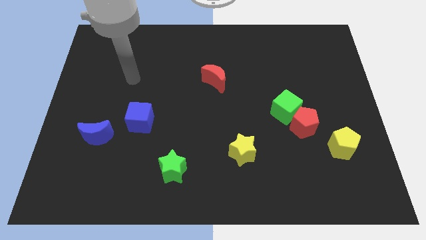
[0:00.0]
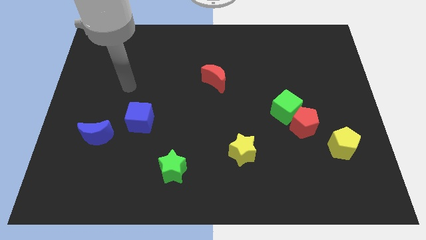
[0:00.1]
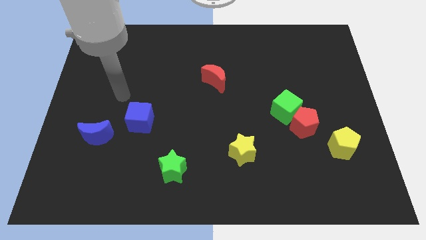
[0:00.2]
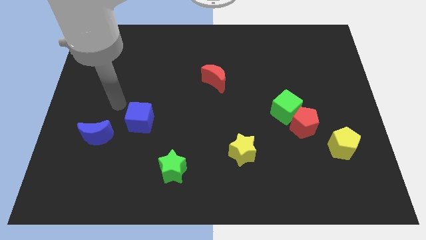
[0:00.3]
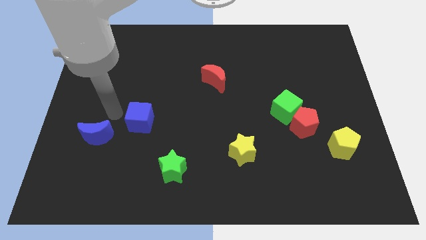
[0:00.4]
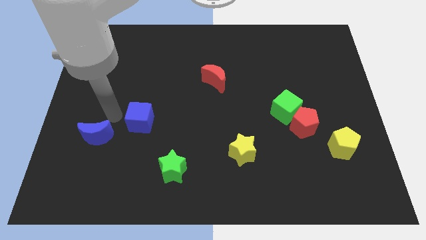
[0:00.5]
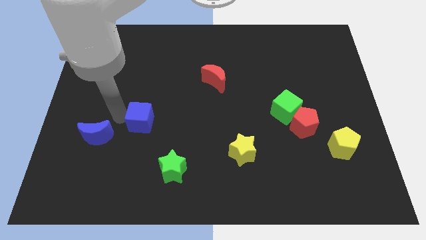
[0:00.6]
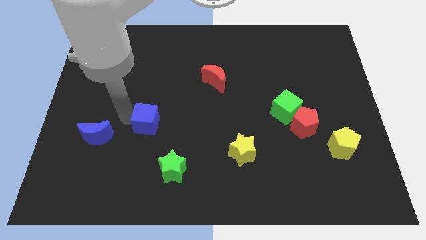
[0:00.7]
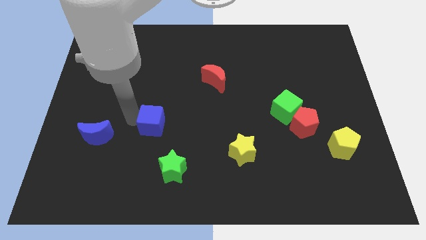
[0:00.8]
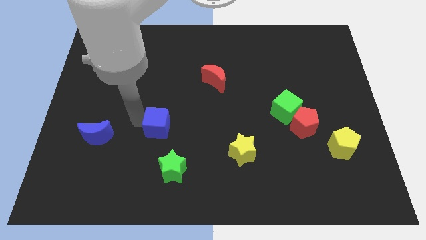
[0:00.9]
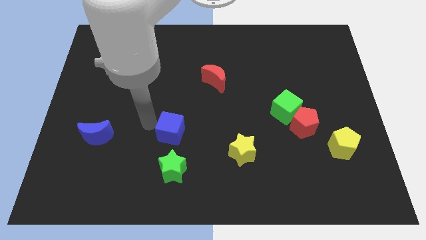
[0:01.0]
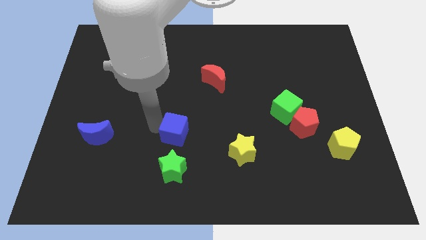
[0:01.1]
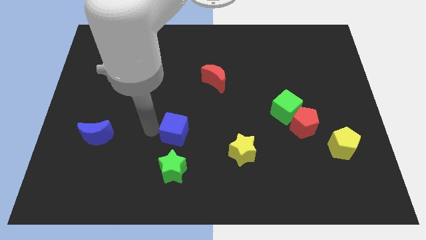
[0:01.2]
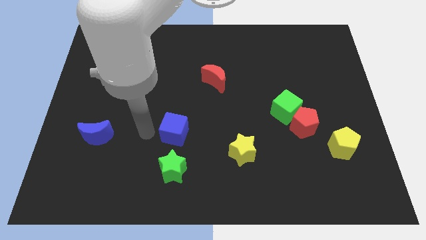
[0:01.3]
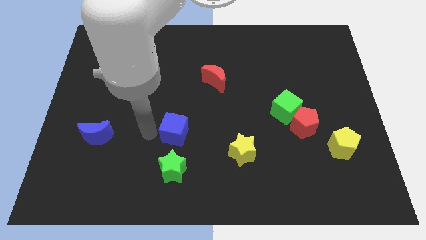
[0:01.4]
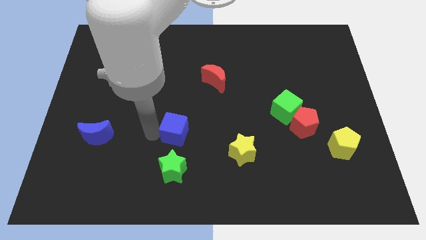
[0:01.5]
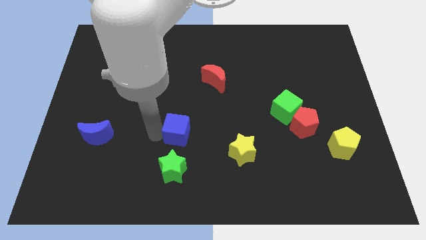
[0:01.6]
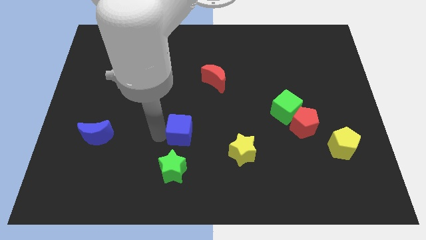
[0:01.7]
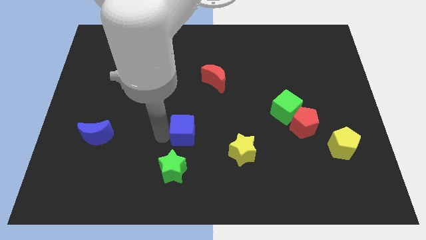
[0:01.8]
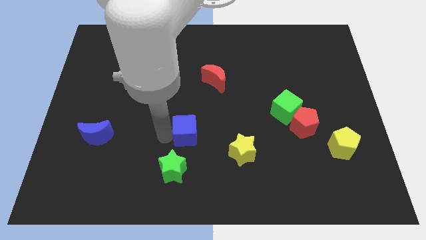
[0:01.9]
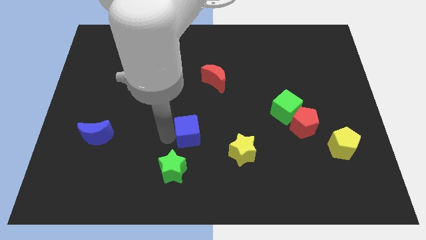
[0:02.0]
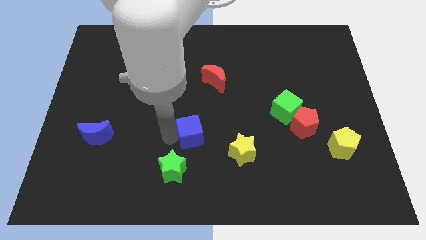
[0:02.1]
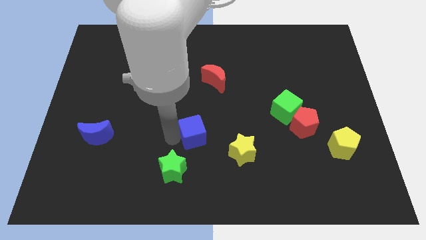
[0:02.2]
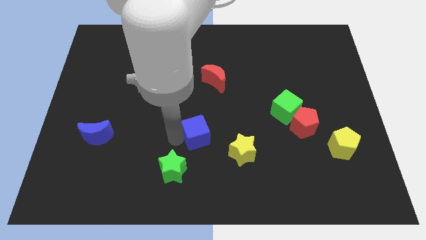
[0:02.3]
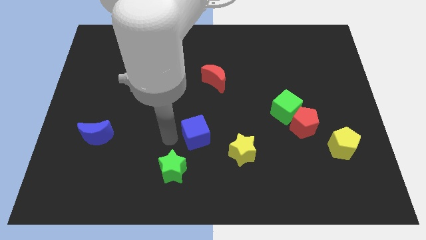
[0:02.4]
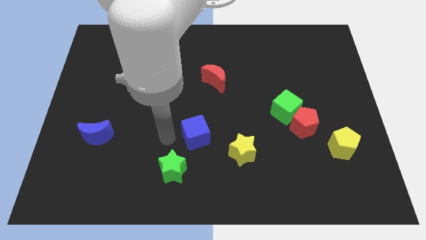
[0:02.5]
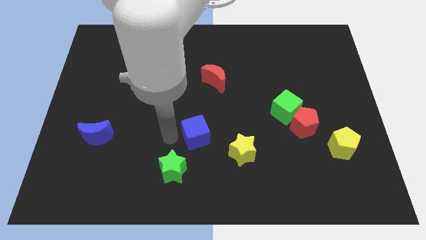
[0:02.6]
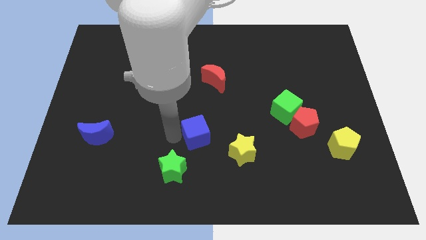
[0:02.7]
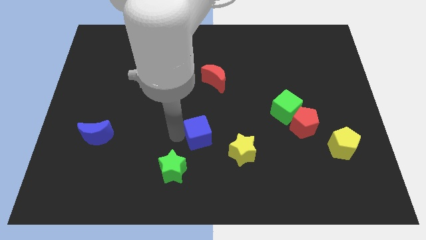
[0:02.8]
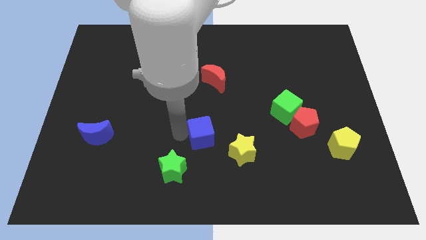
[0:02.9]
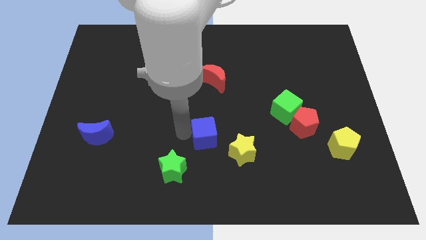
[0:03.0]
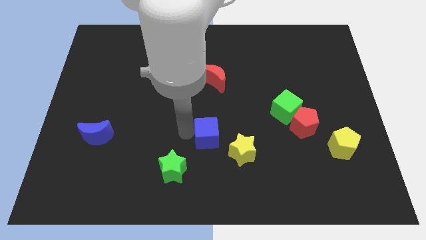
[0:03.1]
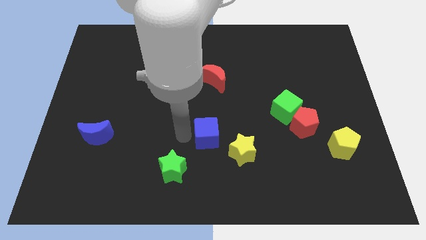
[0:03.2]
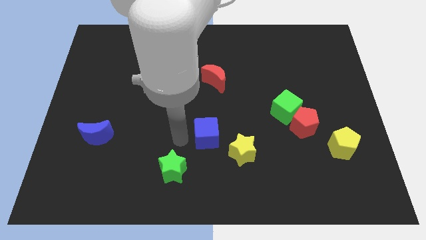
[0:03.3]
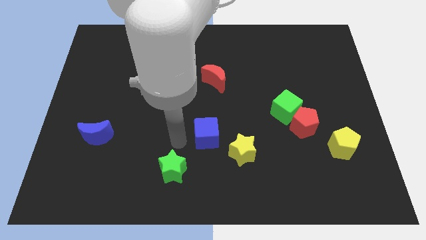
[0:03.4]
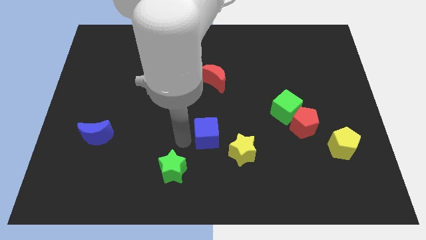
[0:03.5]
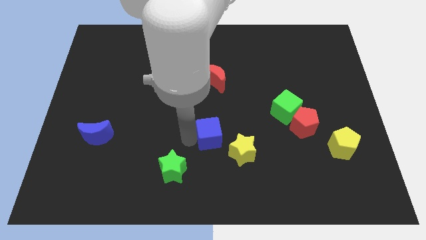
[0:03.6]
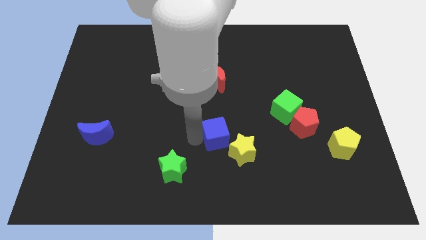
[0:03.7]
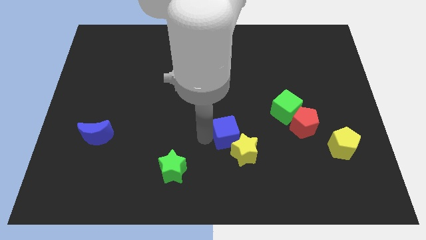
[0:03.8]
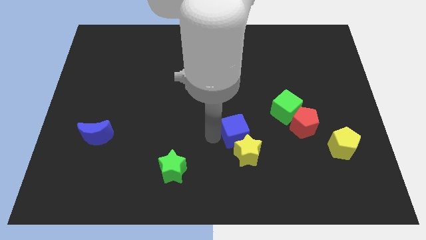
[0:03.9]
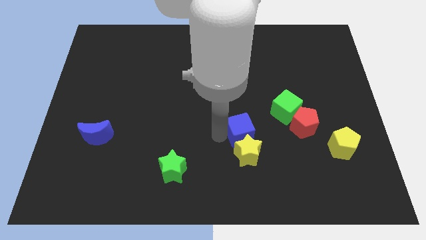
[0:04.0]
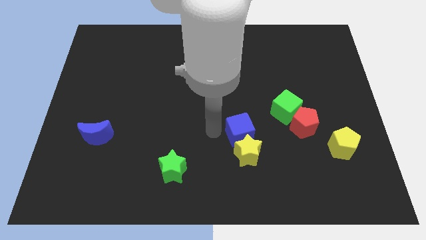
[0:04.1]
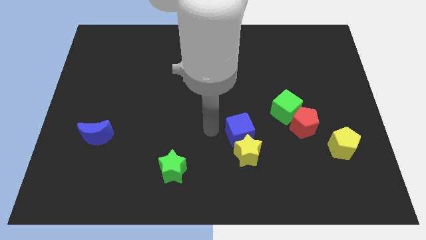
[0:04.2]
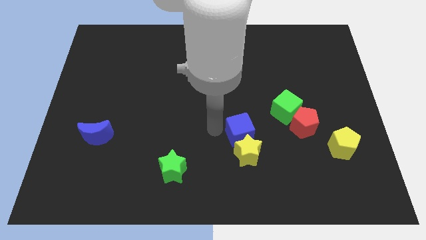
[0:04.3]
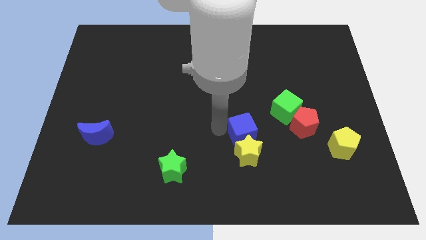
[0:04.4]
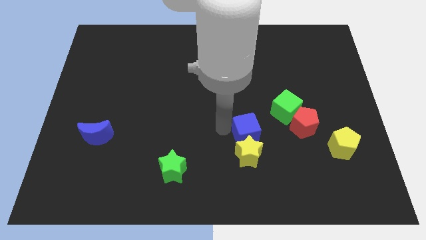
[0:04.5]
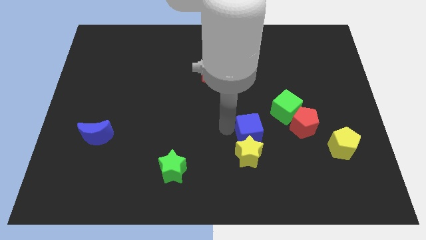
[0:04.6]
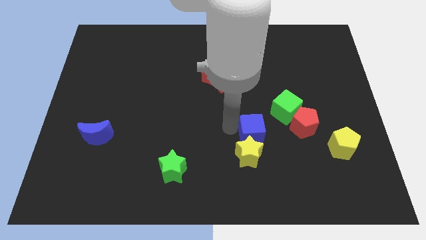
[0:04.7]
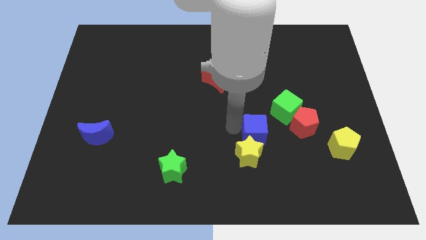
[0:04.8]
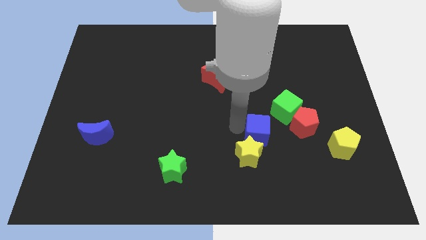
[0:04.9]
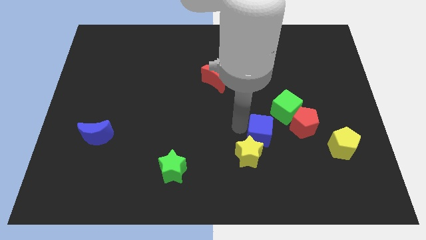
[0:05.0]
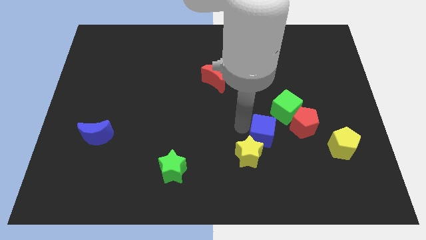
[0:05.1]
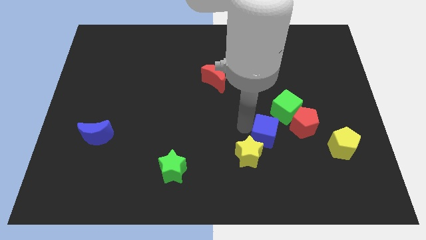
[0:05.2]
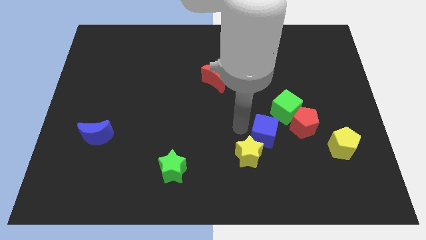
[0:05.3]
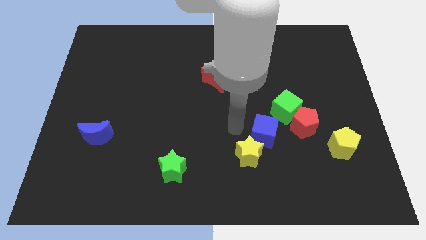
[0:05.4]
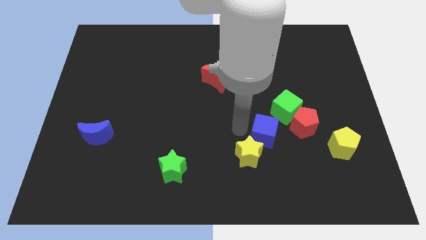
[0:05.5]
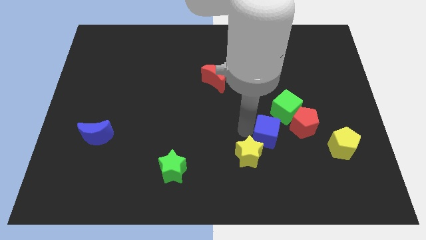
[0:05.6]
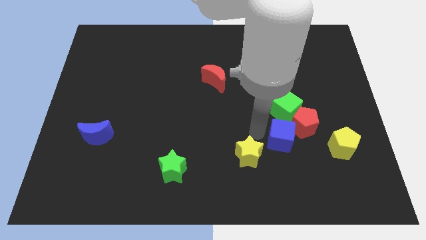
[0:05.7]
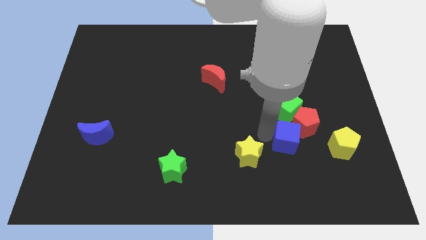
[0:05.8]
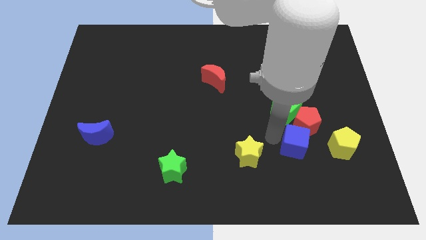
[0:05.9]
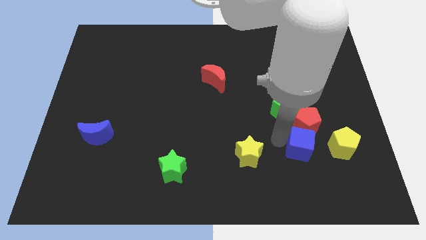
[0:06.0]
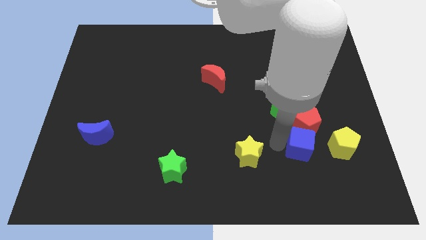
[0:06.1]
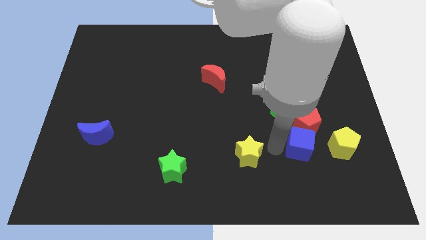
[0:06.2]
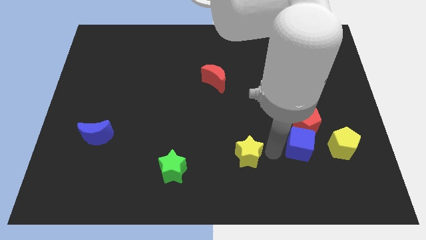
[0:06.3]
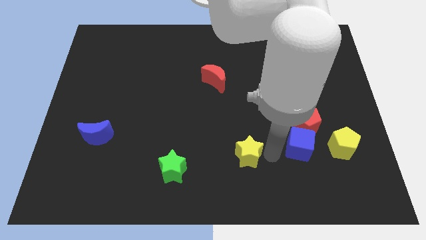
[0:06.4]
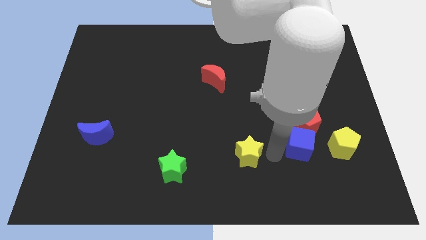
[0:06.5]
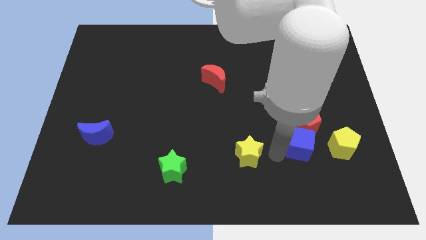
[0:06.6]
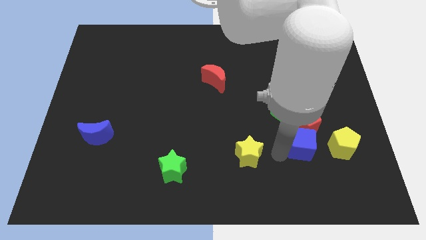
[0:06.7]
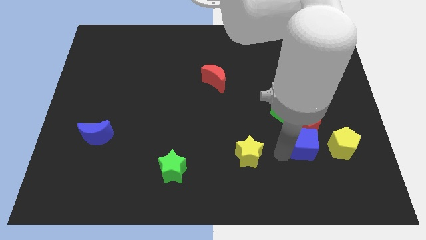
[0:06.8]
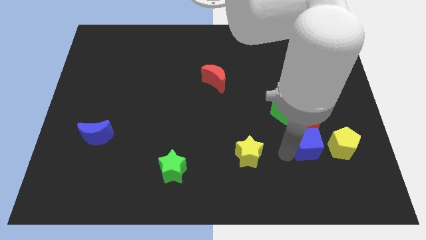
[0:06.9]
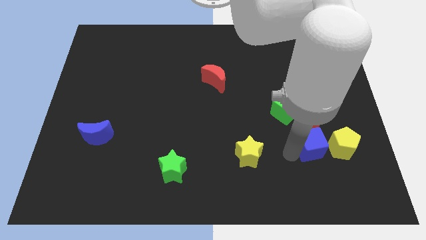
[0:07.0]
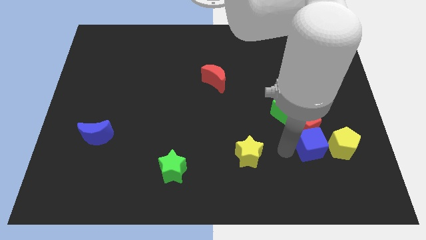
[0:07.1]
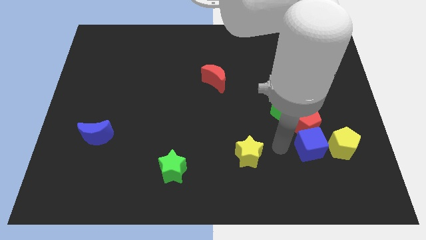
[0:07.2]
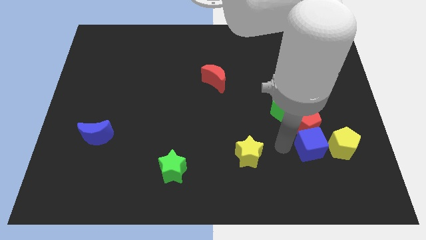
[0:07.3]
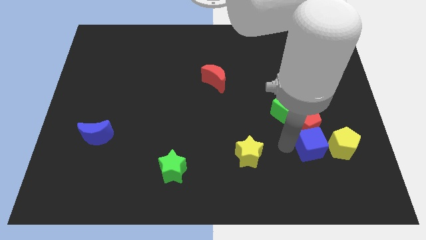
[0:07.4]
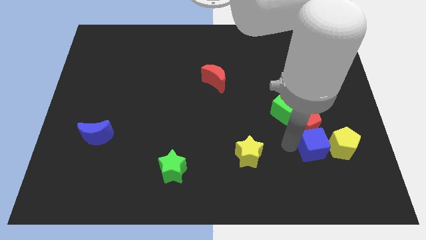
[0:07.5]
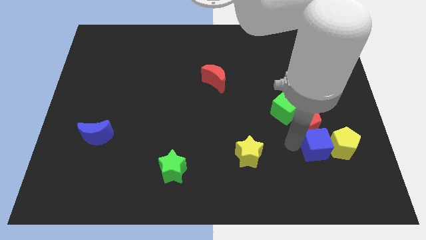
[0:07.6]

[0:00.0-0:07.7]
push the blue cube close to the yellow pentagon
